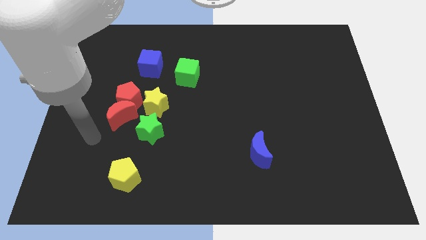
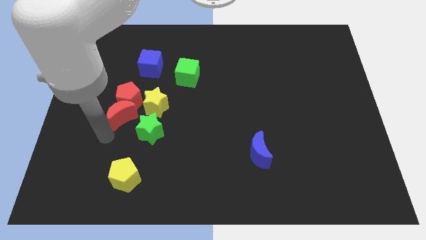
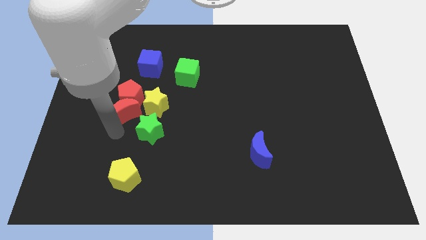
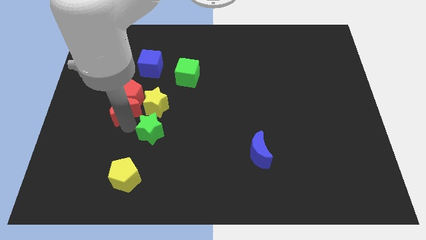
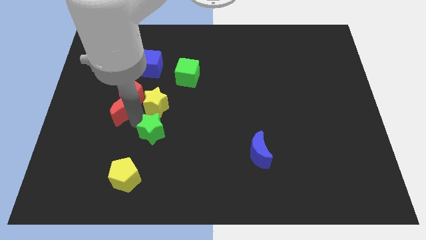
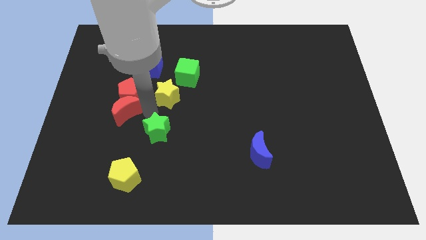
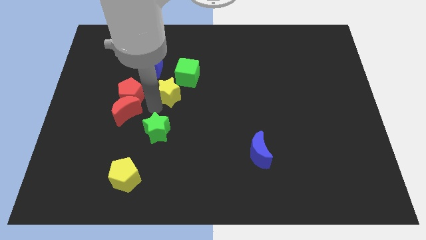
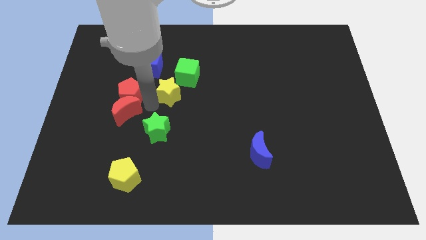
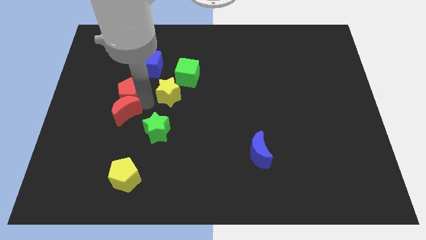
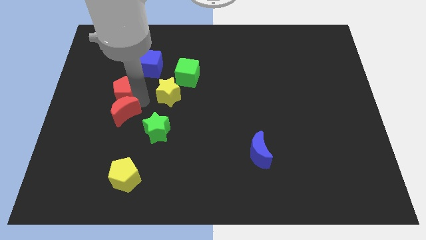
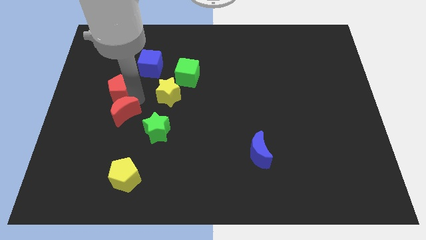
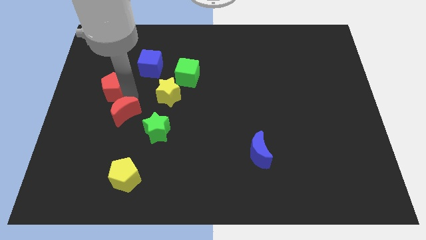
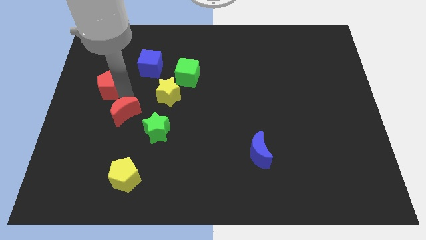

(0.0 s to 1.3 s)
pull the red pentagon apart from the red moon and yellow star

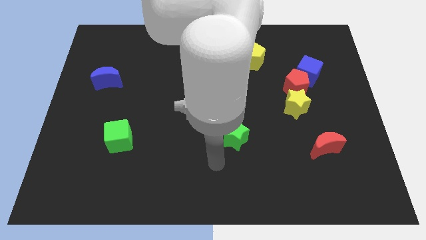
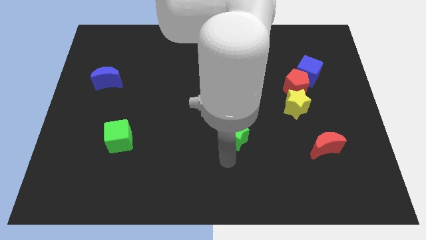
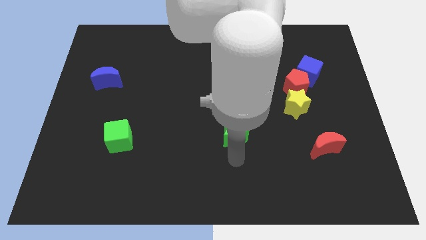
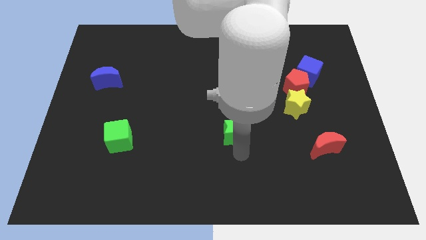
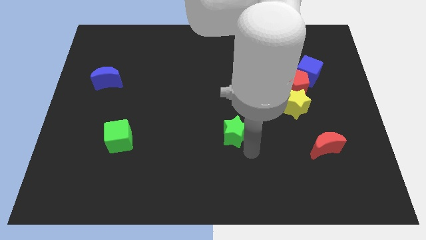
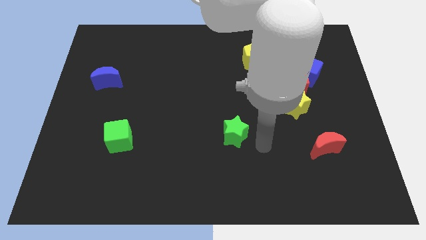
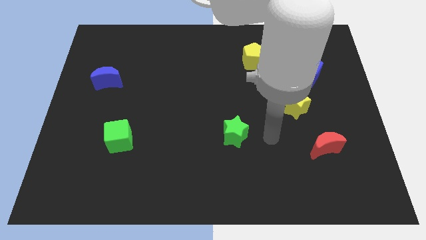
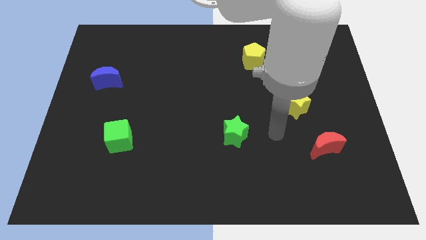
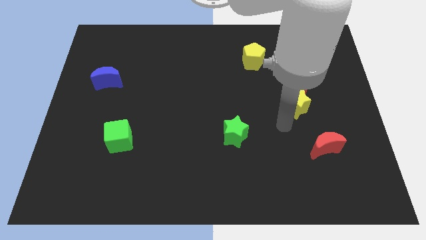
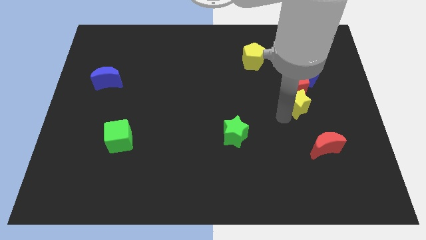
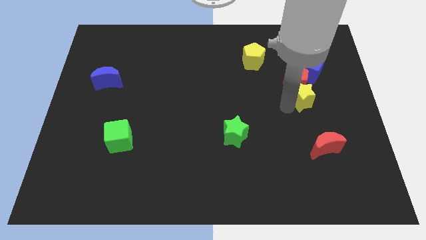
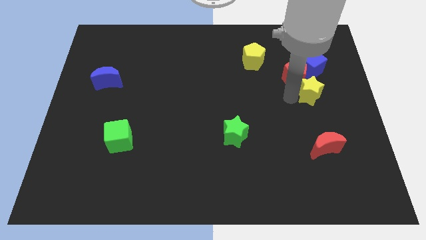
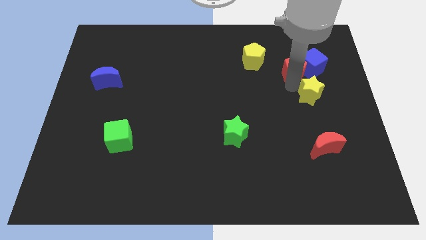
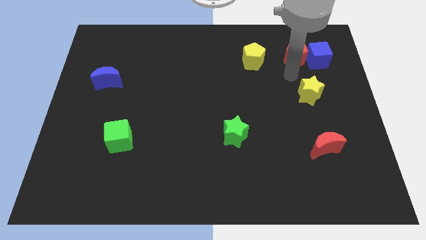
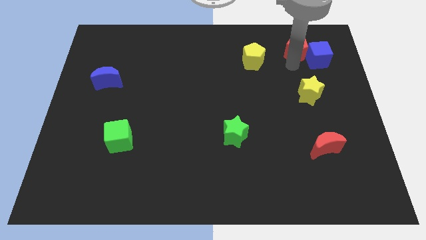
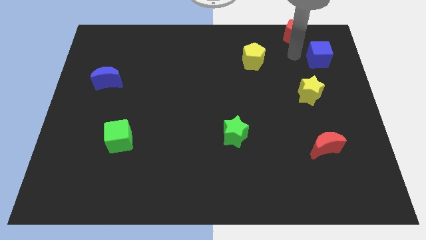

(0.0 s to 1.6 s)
separate the blue cube from the red pentagon

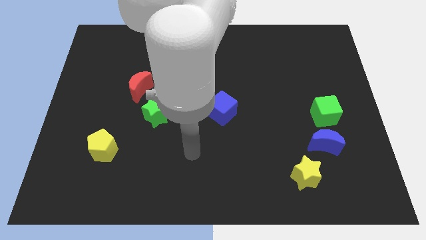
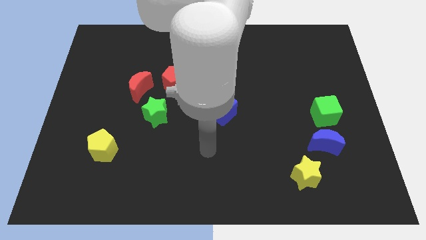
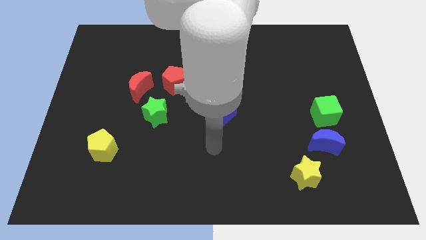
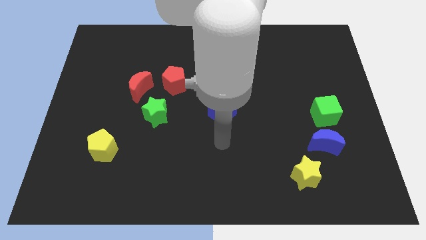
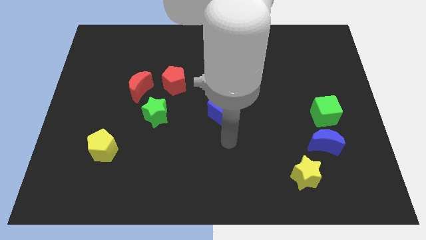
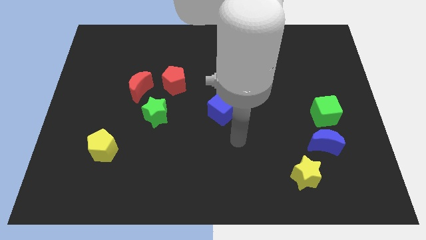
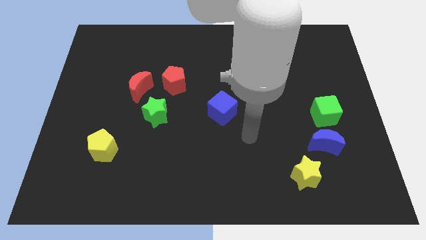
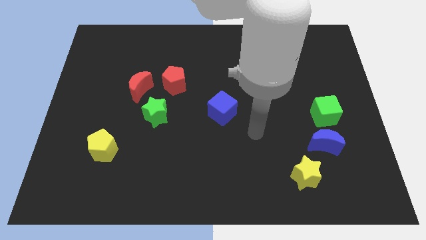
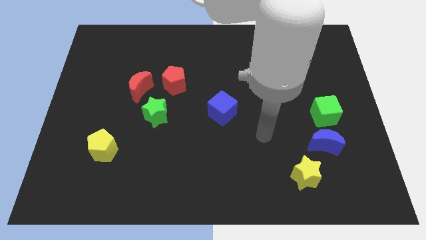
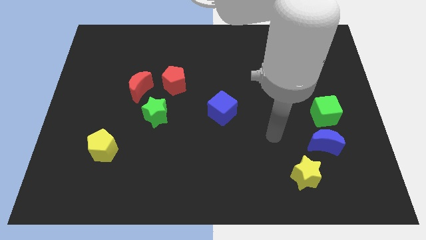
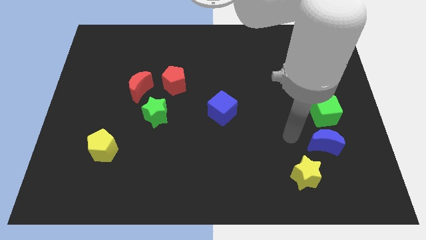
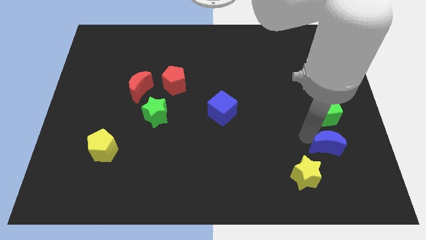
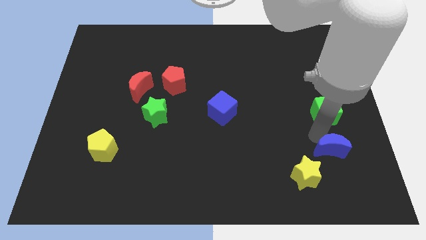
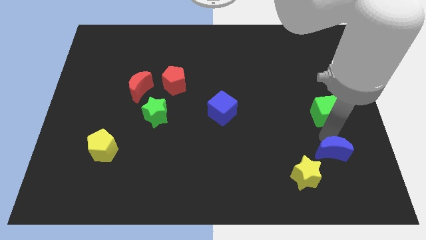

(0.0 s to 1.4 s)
move the green cube away from the blue moon

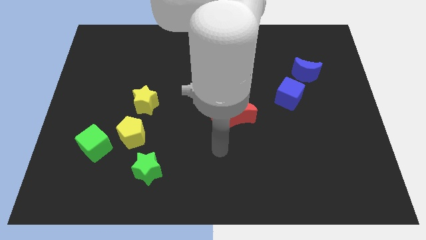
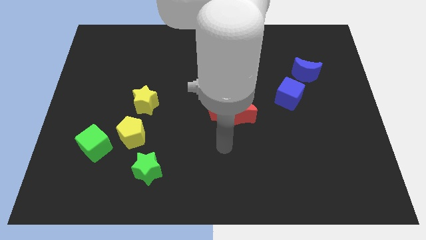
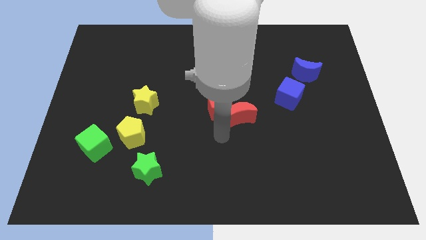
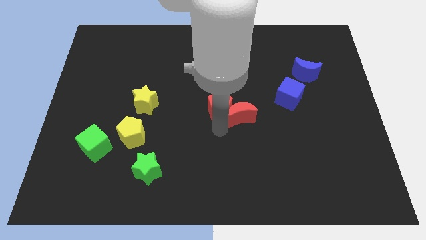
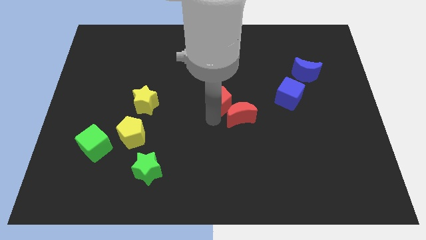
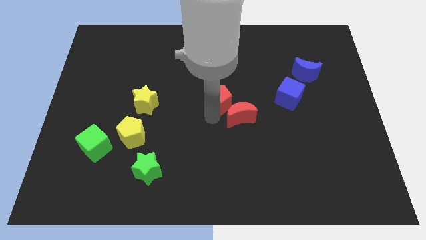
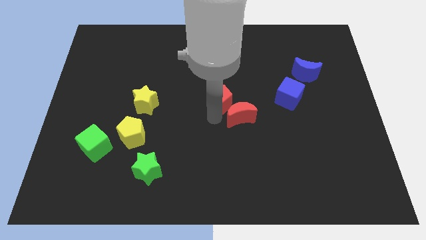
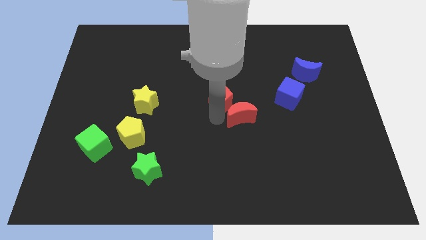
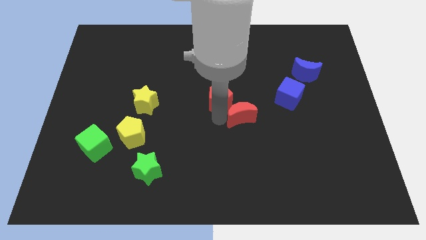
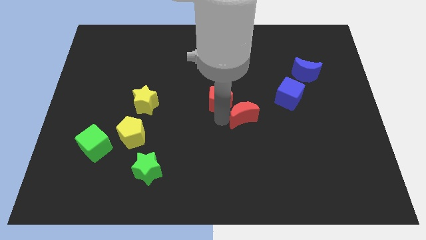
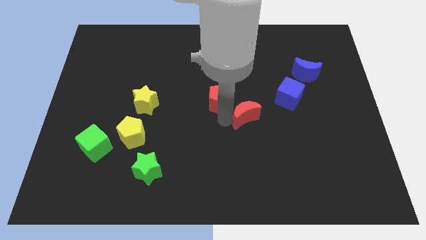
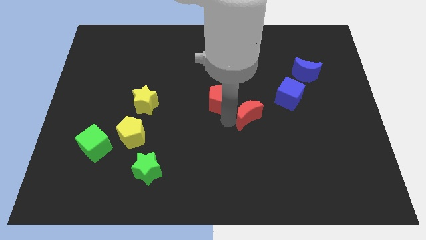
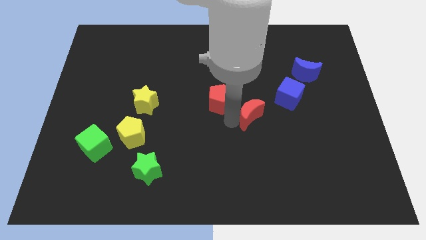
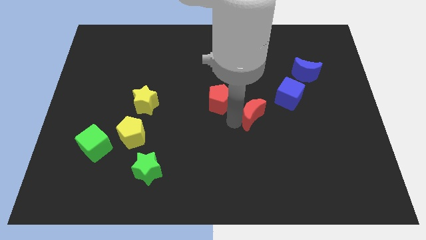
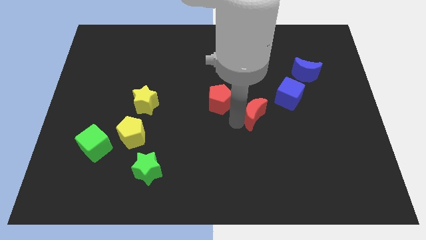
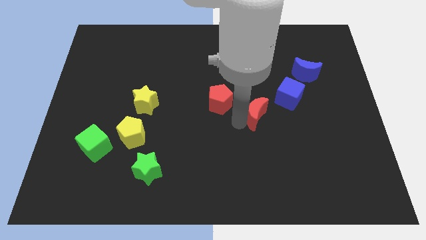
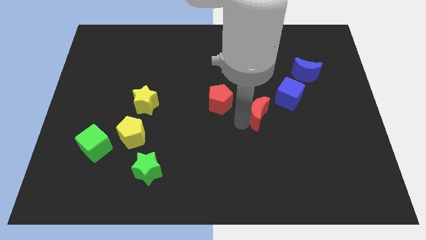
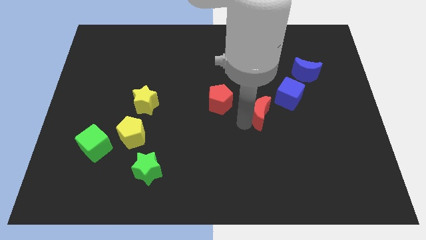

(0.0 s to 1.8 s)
move the red moon away from the red pentagon

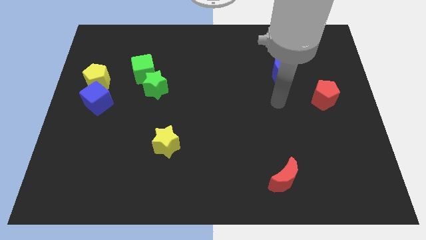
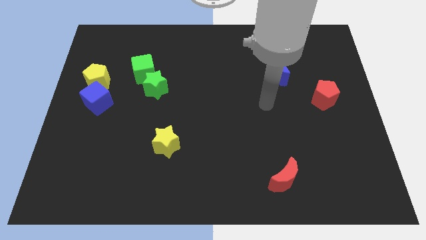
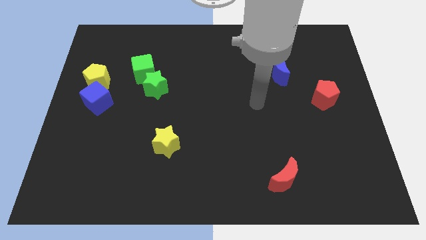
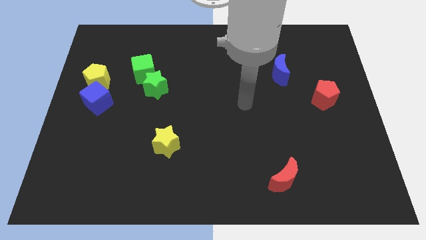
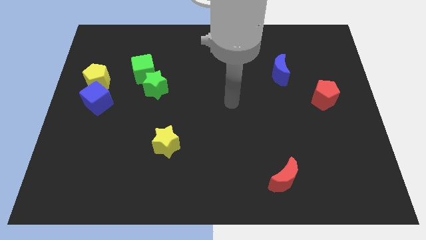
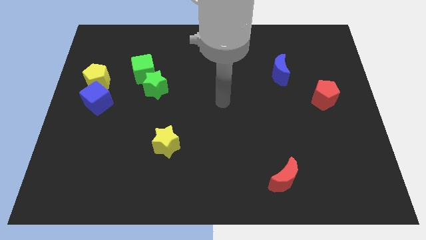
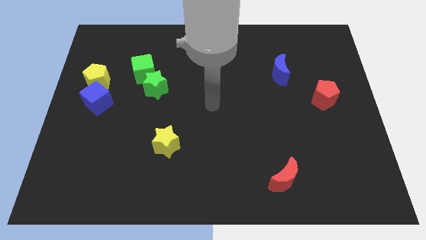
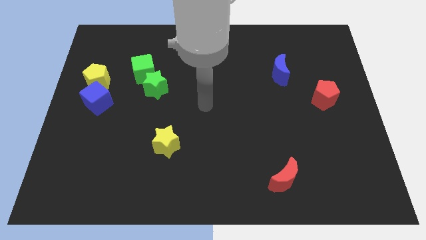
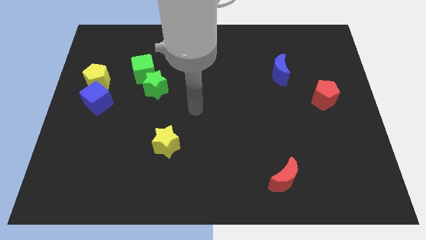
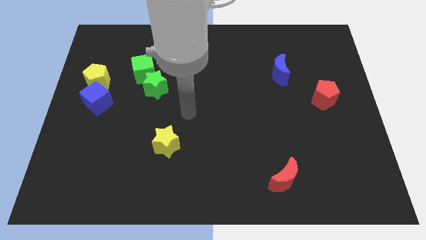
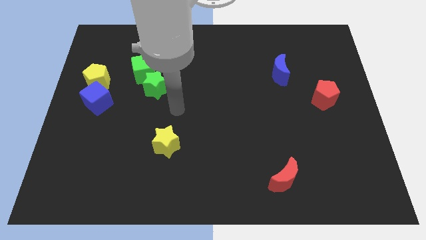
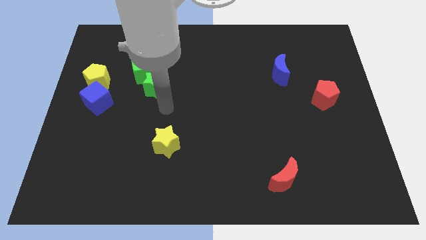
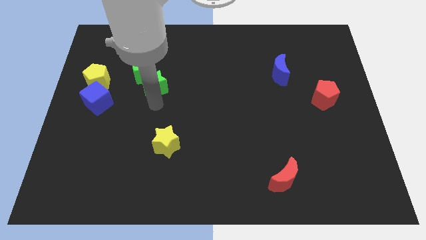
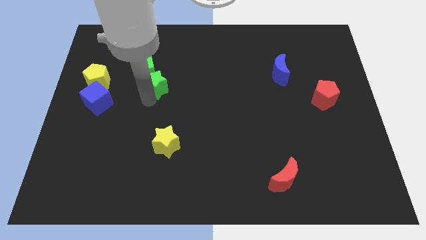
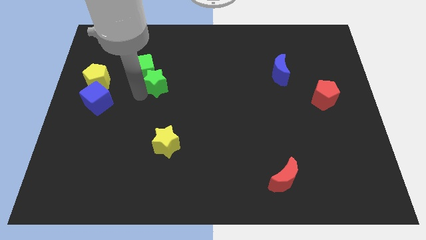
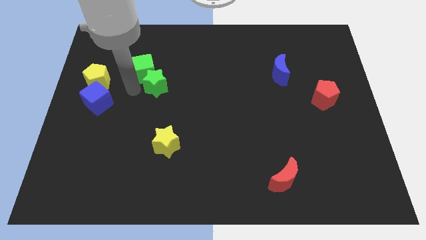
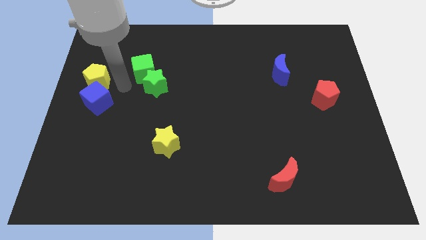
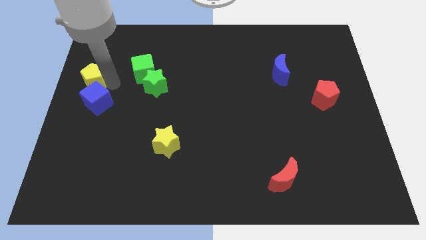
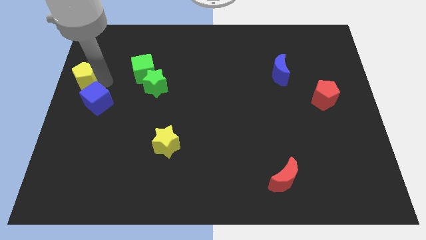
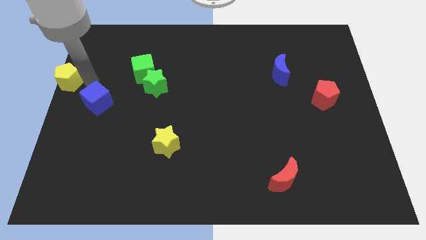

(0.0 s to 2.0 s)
pull the blue cube apart from the yellow pentagon

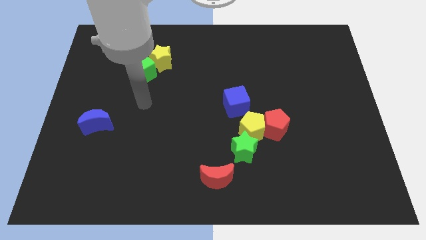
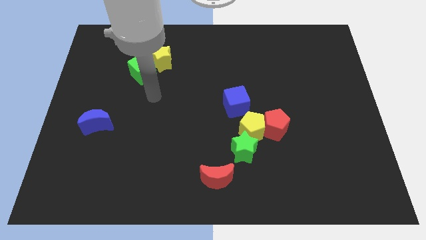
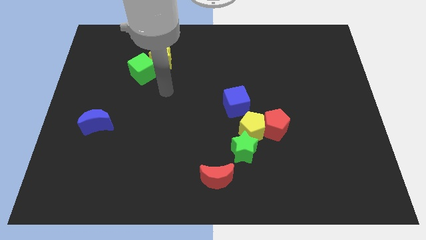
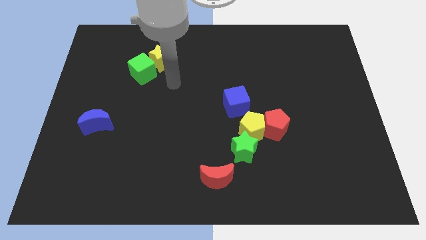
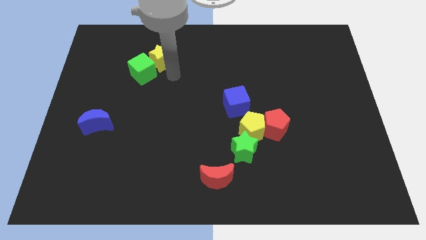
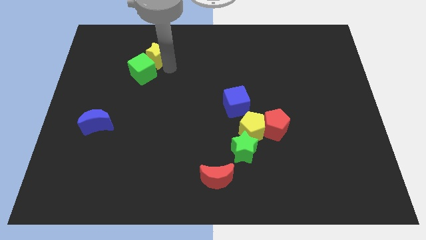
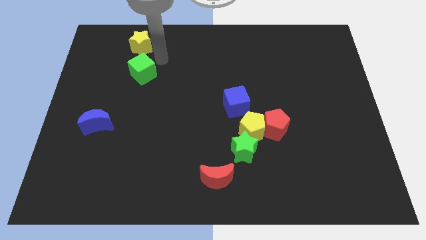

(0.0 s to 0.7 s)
move the green cube away from the yellow star

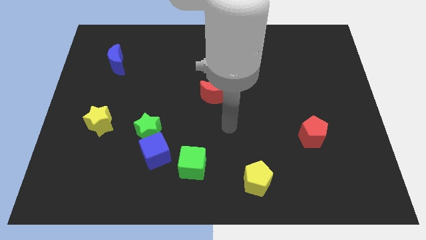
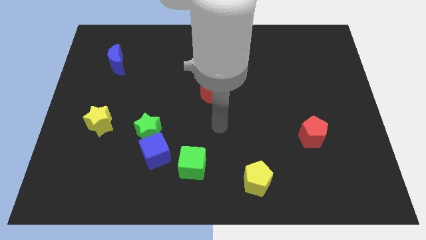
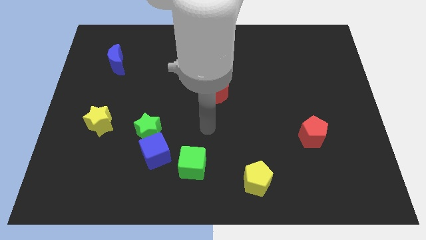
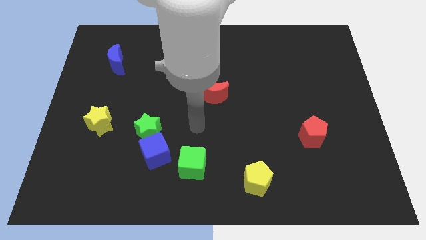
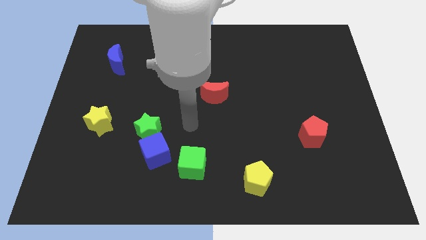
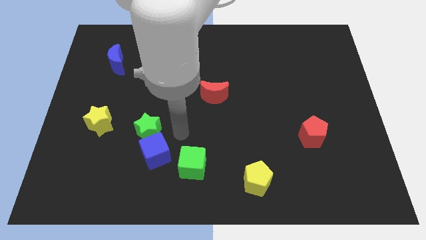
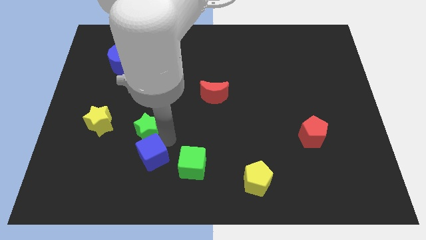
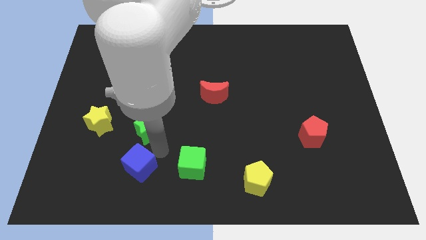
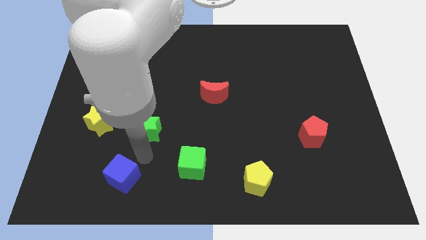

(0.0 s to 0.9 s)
pull the green star apart from the blue cube
